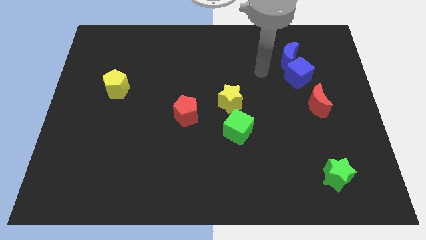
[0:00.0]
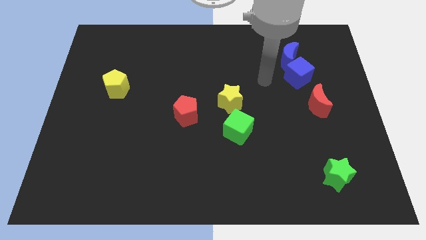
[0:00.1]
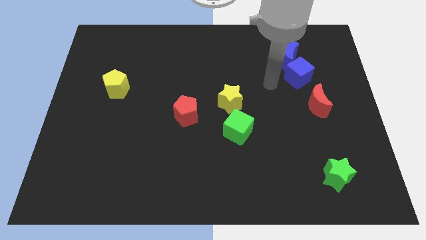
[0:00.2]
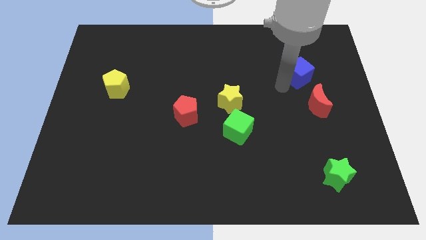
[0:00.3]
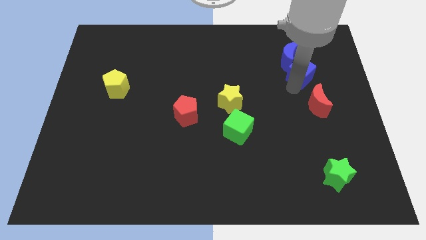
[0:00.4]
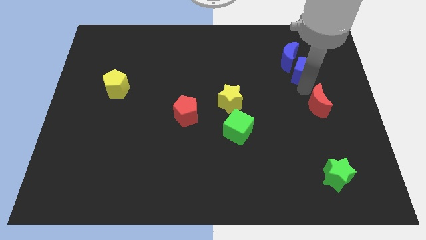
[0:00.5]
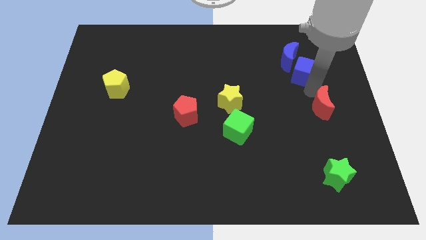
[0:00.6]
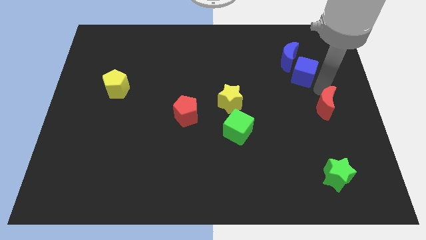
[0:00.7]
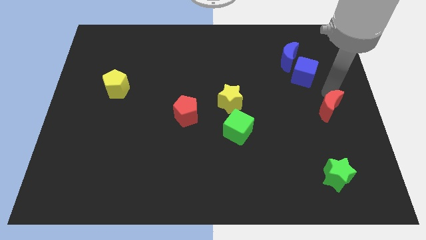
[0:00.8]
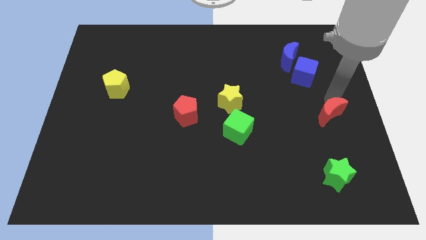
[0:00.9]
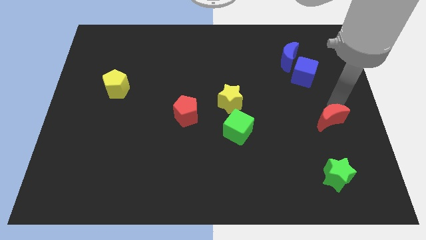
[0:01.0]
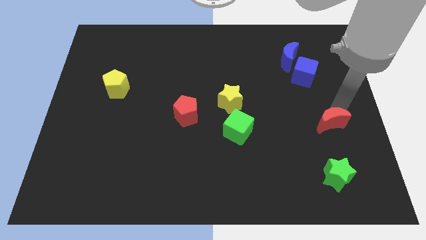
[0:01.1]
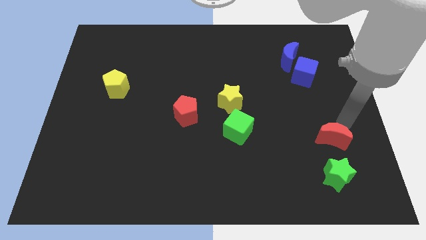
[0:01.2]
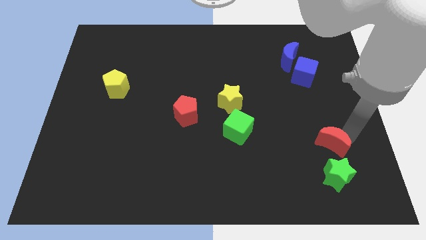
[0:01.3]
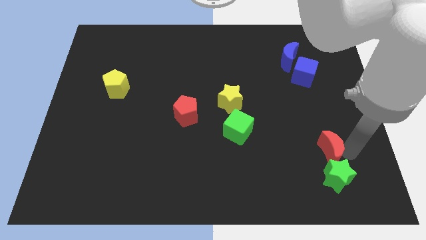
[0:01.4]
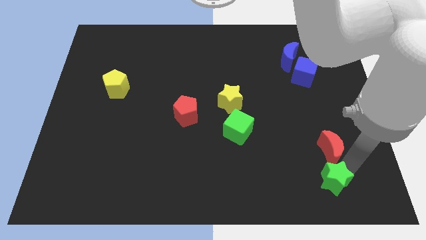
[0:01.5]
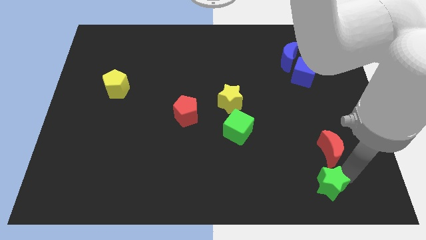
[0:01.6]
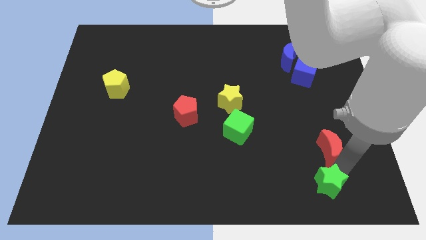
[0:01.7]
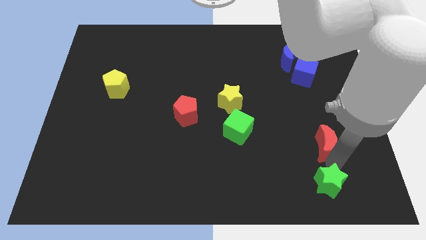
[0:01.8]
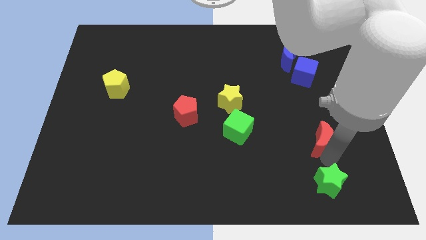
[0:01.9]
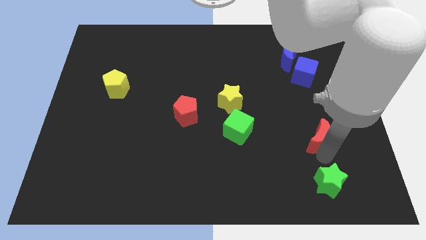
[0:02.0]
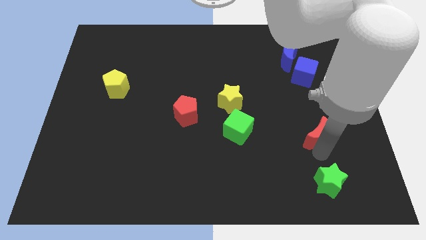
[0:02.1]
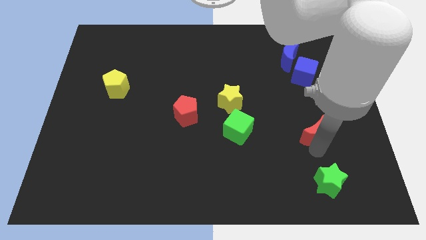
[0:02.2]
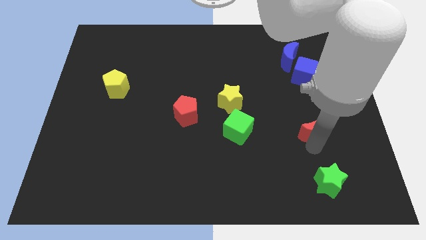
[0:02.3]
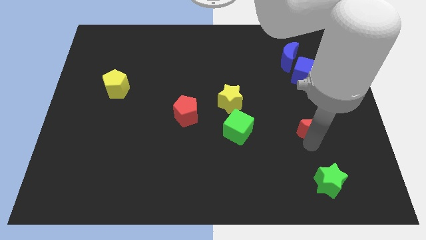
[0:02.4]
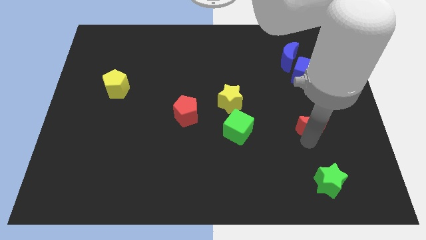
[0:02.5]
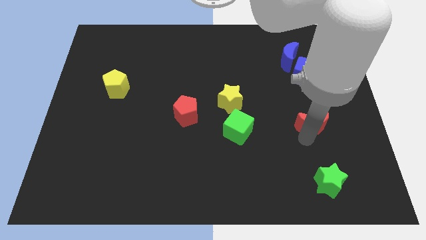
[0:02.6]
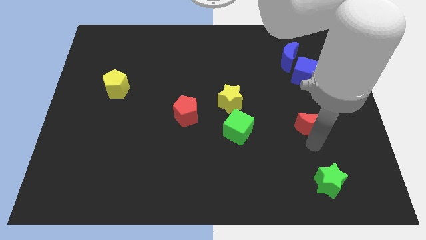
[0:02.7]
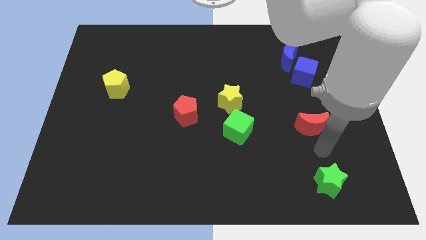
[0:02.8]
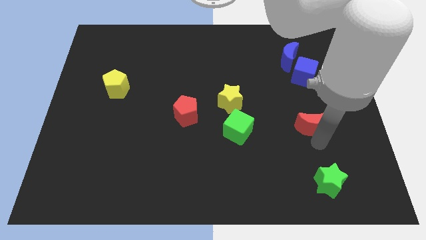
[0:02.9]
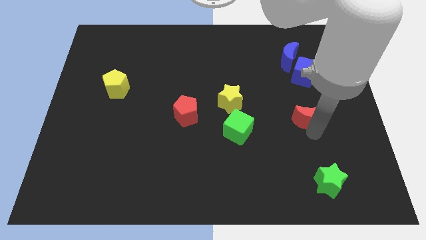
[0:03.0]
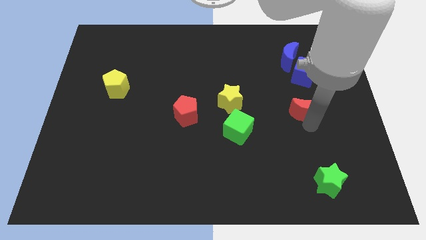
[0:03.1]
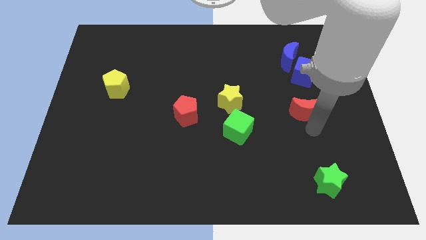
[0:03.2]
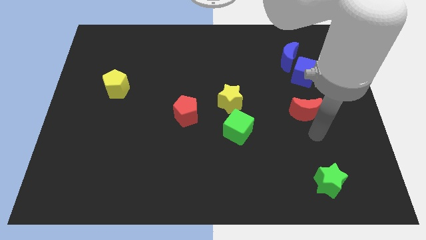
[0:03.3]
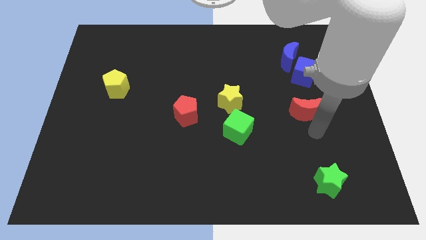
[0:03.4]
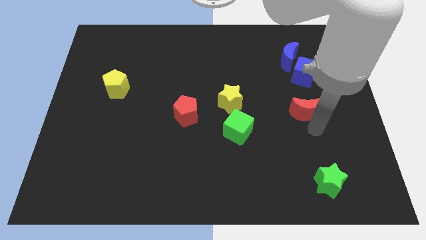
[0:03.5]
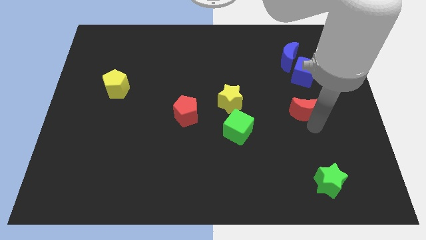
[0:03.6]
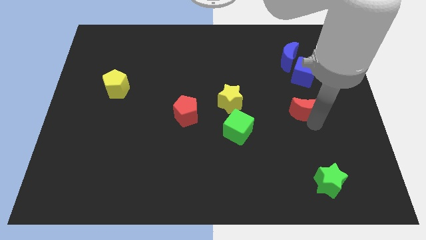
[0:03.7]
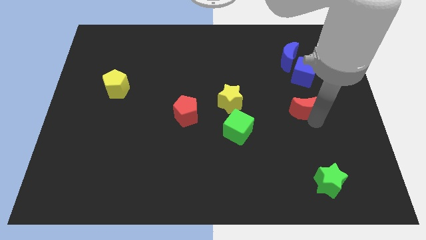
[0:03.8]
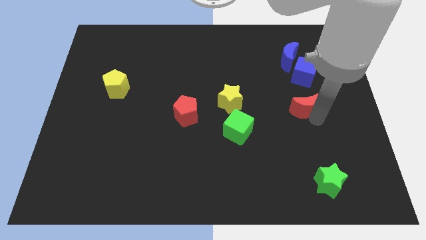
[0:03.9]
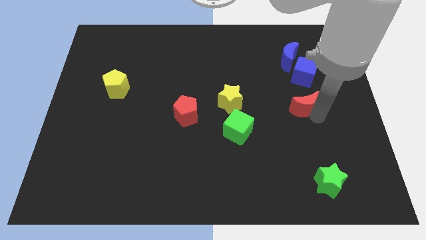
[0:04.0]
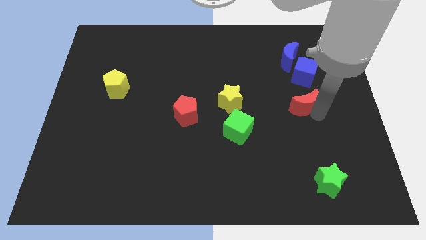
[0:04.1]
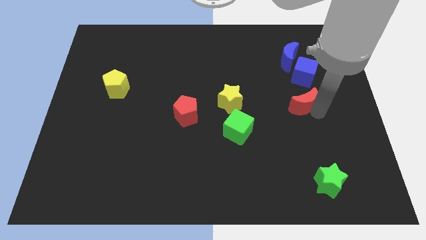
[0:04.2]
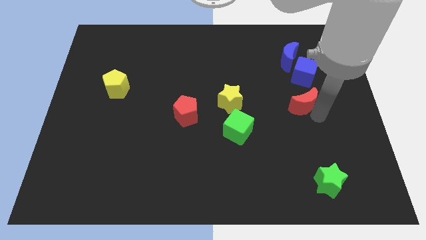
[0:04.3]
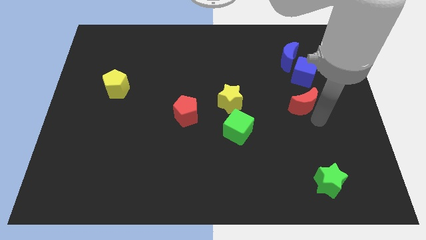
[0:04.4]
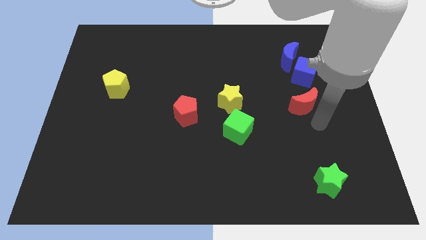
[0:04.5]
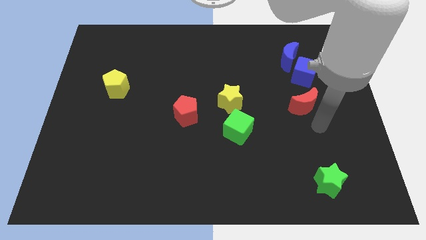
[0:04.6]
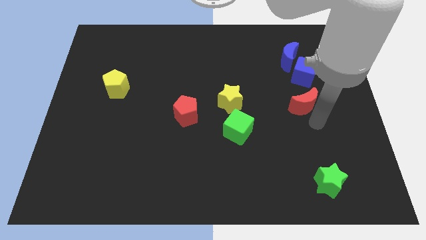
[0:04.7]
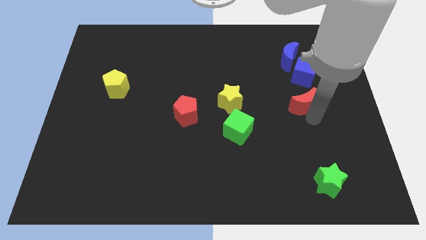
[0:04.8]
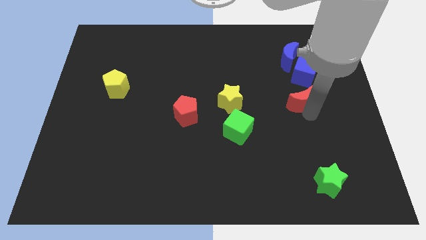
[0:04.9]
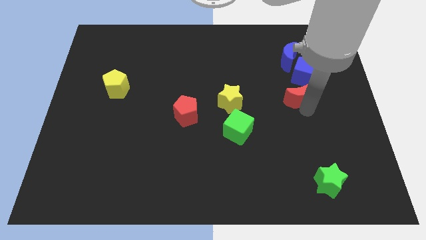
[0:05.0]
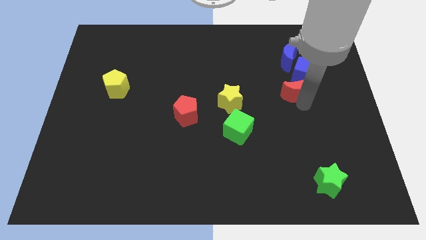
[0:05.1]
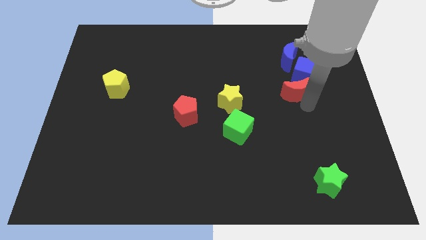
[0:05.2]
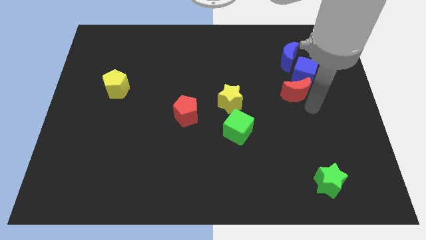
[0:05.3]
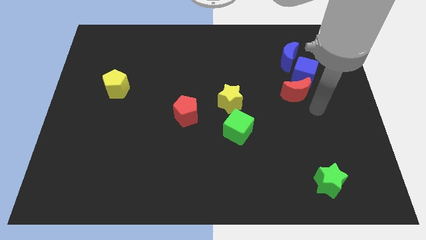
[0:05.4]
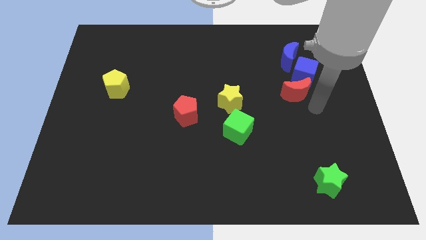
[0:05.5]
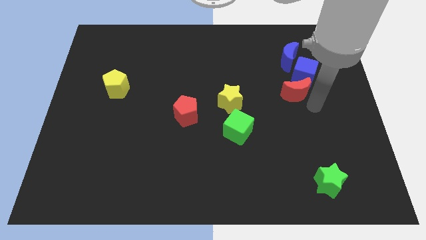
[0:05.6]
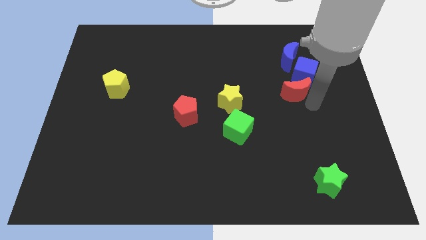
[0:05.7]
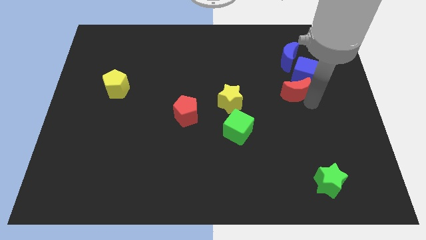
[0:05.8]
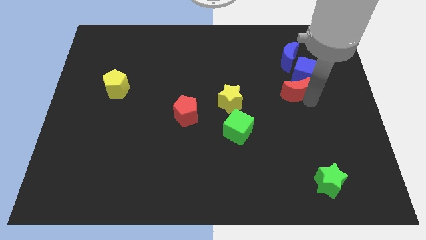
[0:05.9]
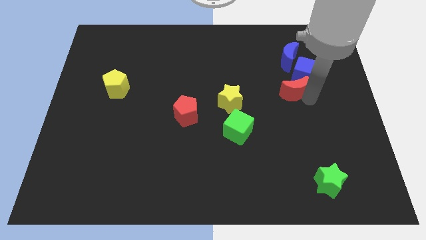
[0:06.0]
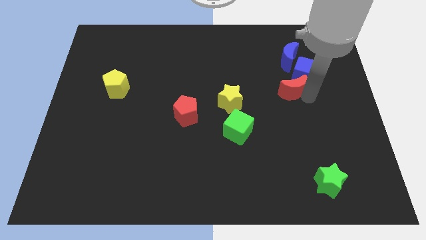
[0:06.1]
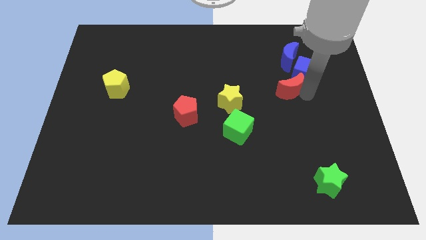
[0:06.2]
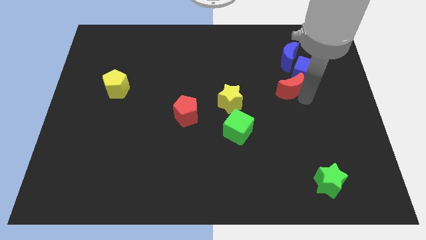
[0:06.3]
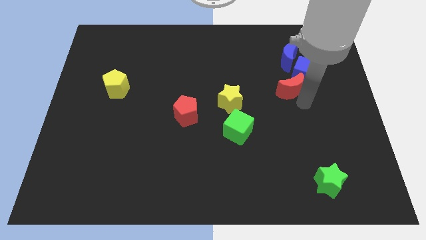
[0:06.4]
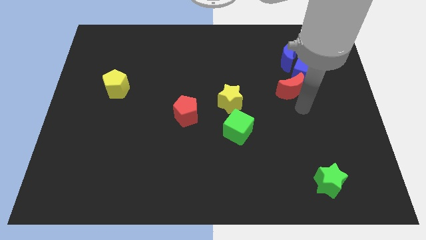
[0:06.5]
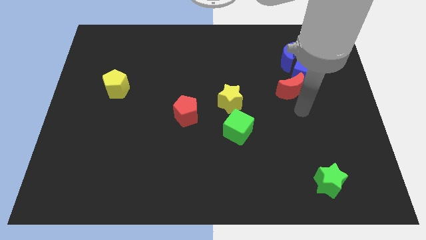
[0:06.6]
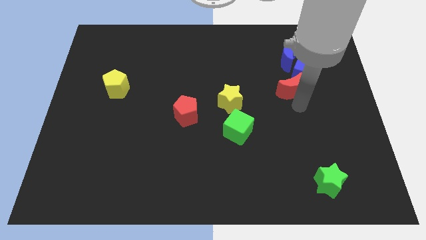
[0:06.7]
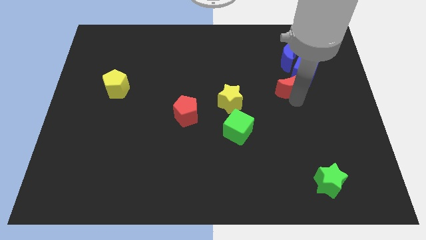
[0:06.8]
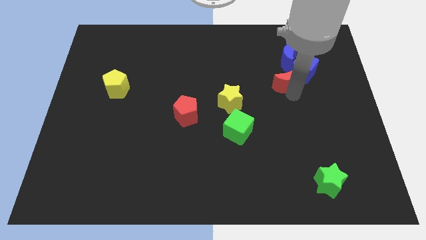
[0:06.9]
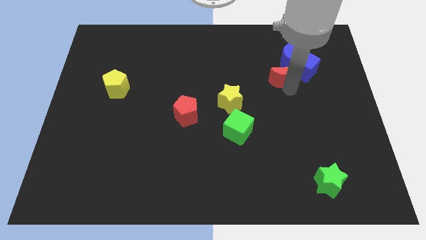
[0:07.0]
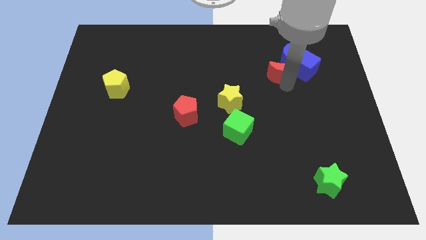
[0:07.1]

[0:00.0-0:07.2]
push the red moon towards the blue moon

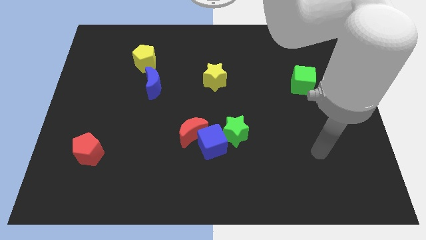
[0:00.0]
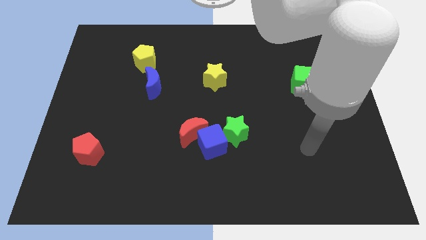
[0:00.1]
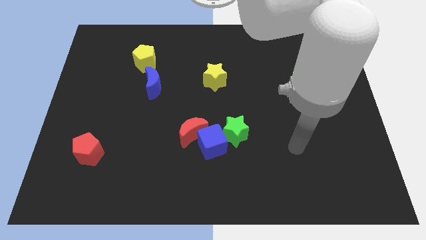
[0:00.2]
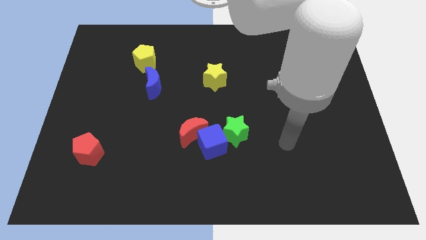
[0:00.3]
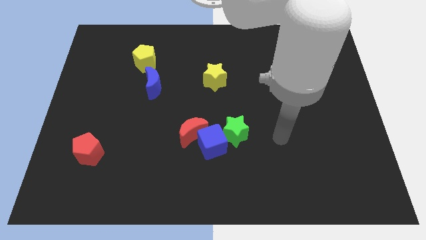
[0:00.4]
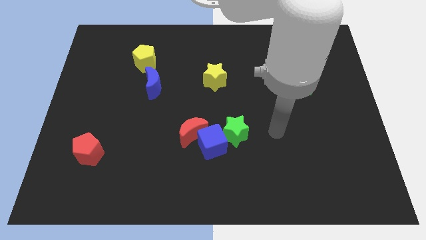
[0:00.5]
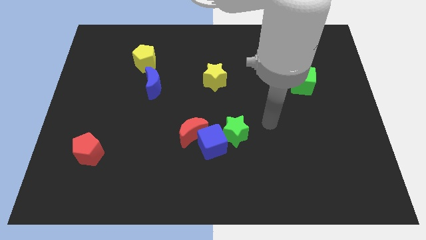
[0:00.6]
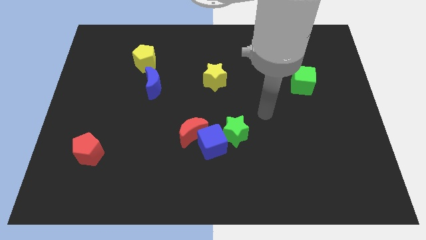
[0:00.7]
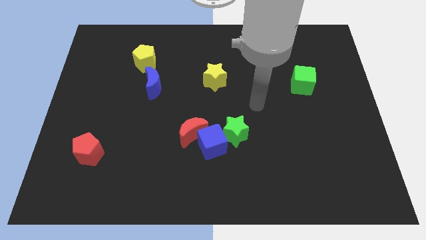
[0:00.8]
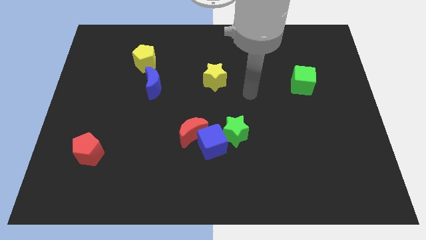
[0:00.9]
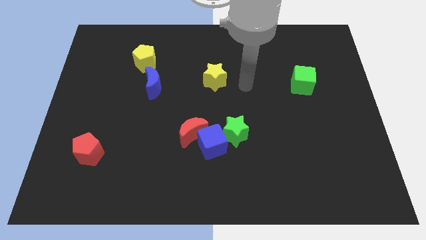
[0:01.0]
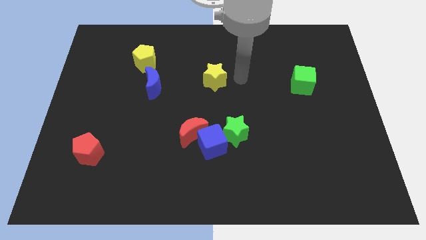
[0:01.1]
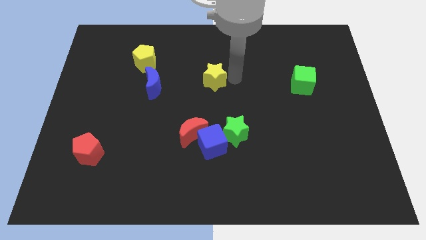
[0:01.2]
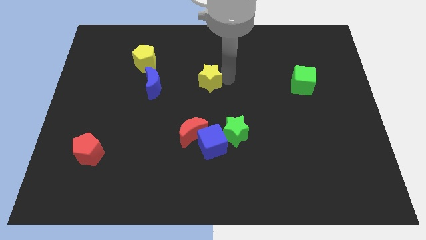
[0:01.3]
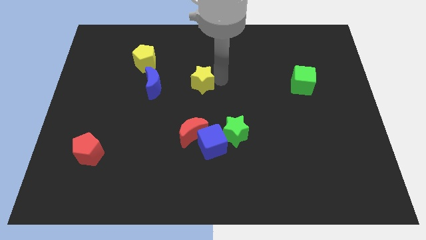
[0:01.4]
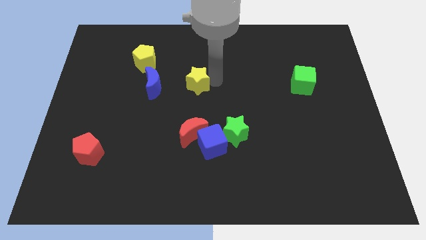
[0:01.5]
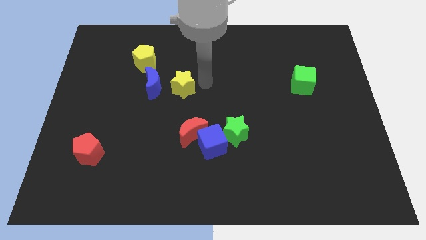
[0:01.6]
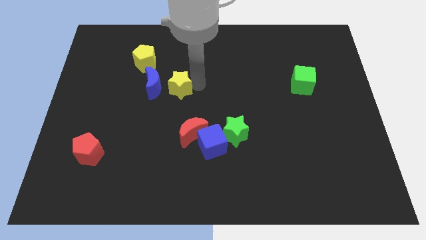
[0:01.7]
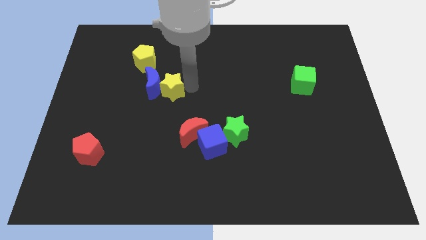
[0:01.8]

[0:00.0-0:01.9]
move the yellow star next to the blue moon
